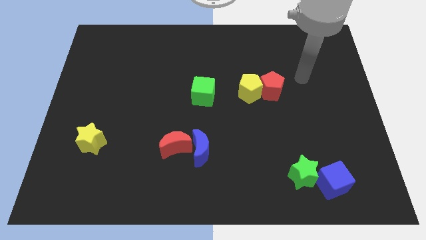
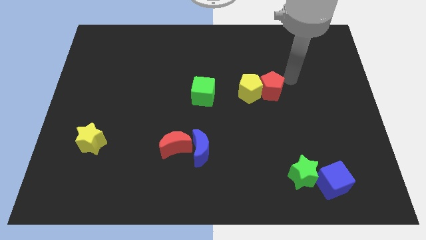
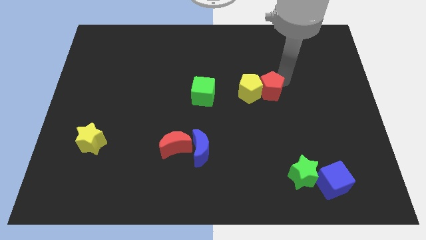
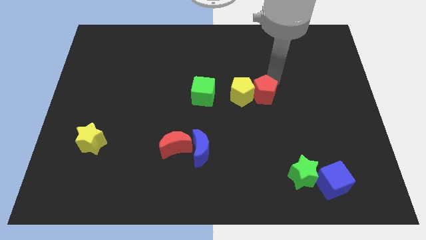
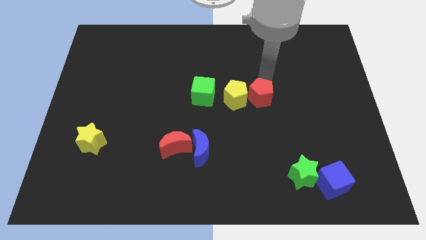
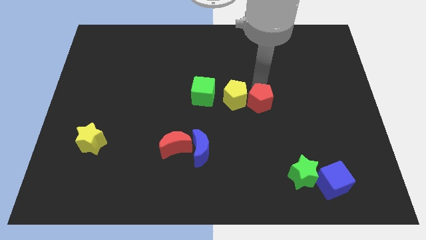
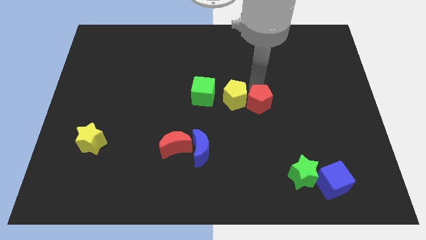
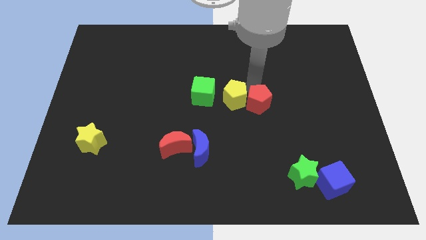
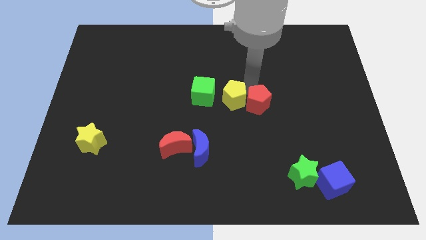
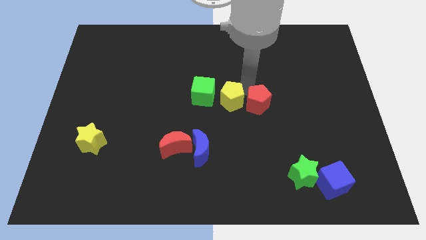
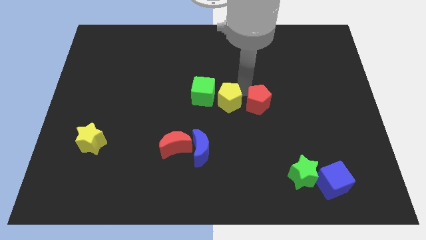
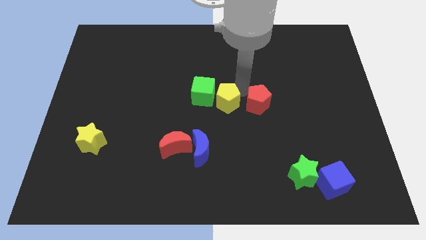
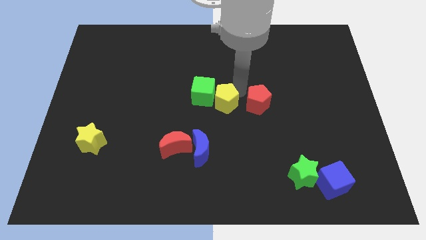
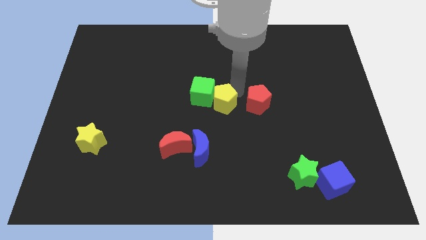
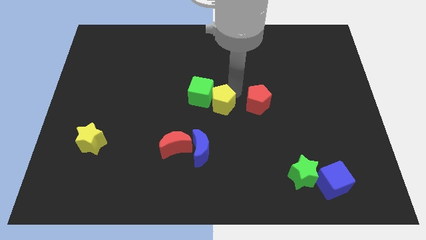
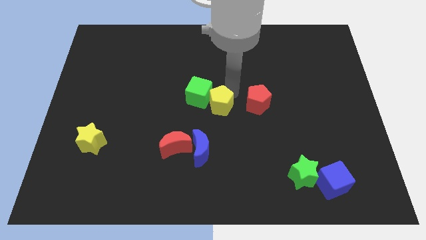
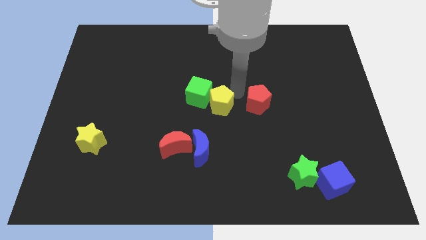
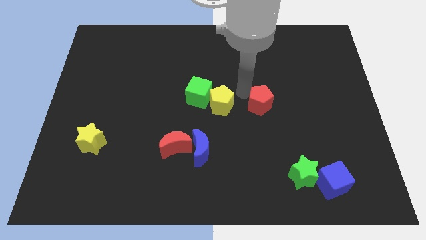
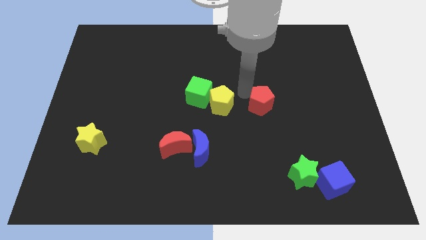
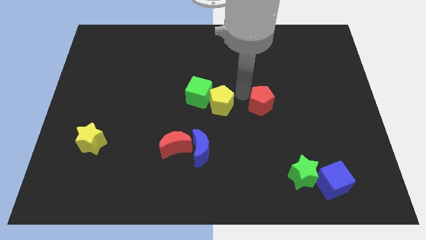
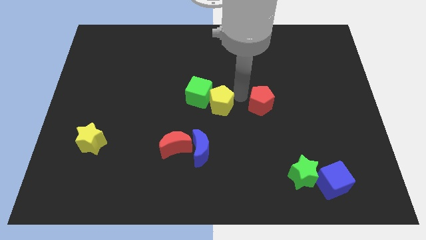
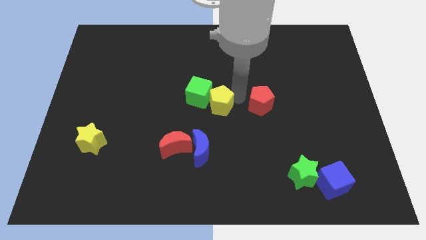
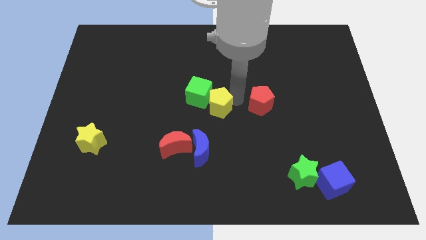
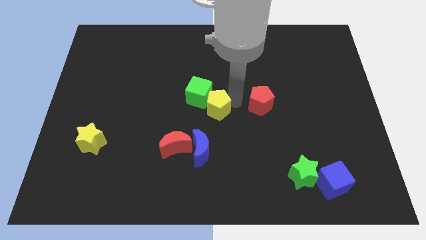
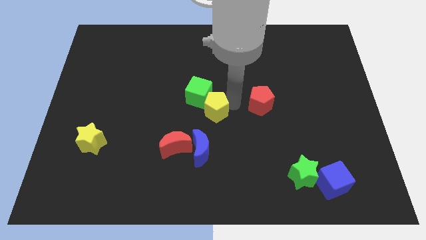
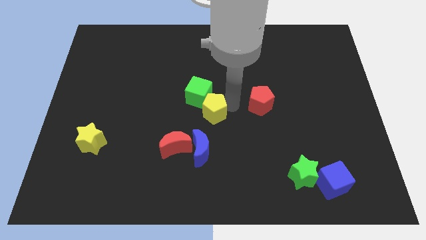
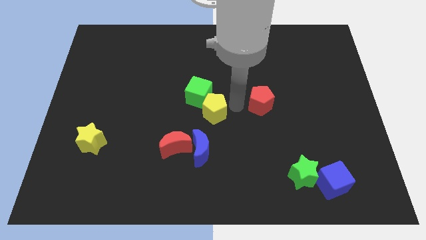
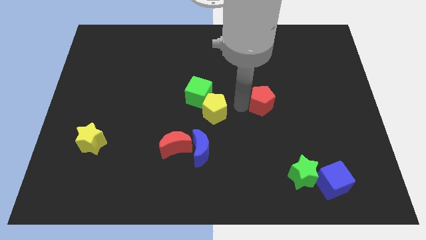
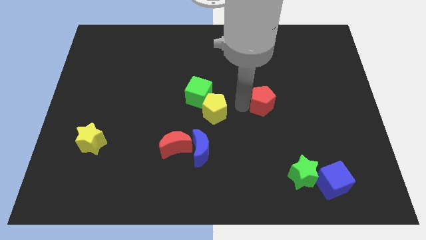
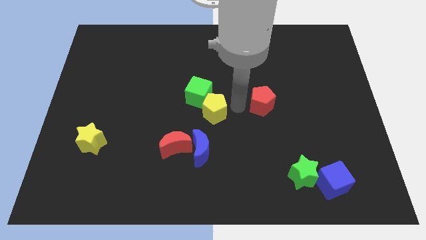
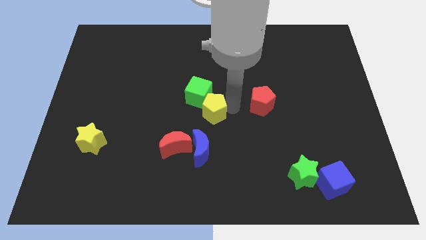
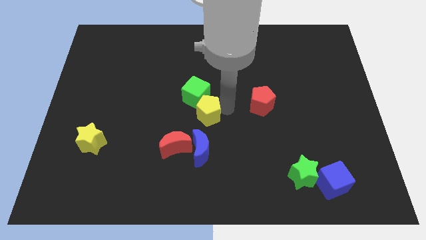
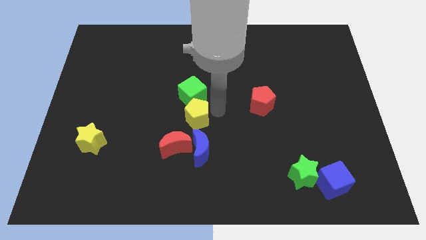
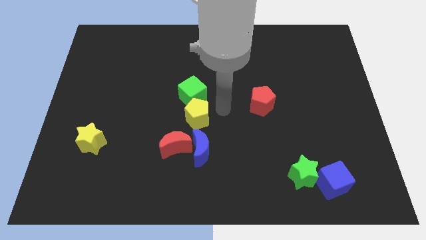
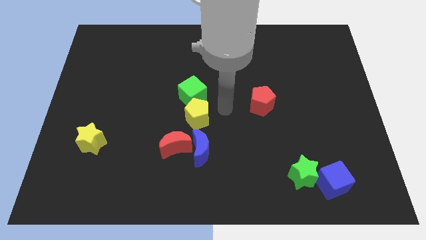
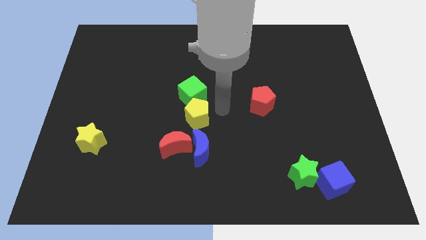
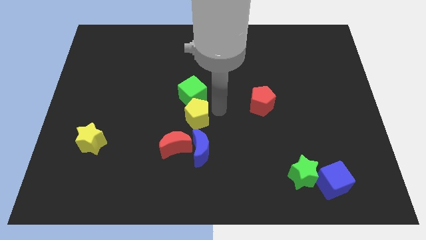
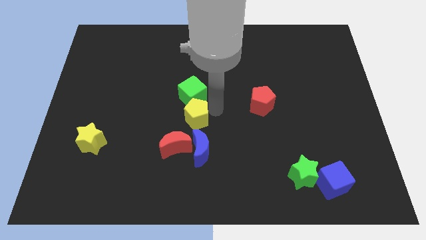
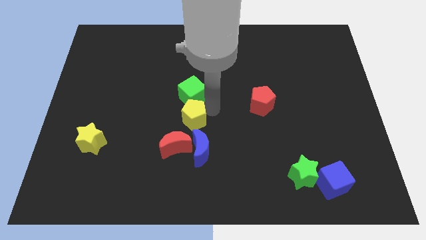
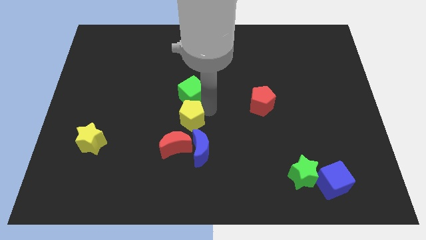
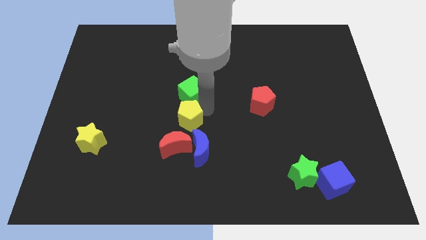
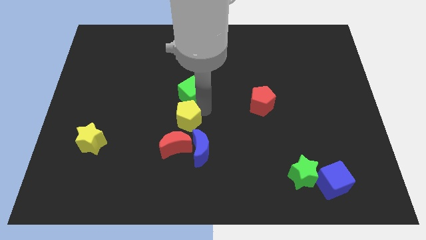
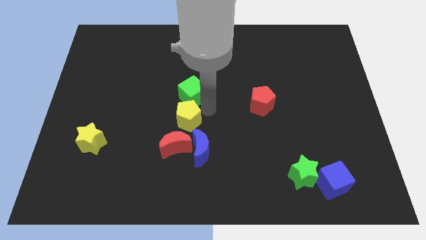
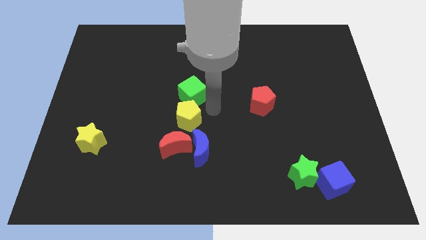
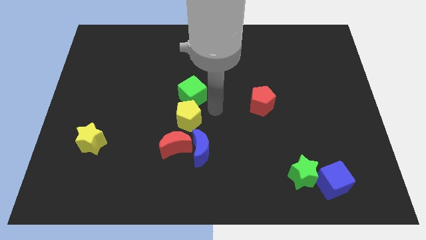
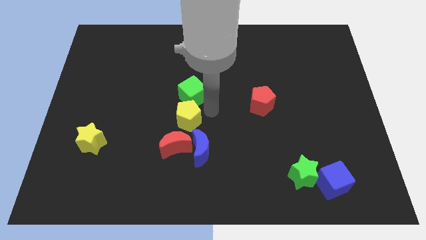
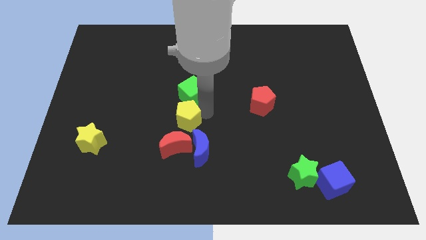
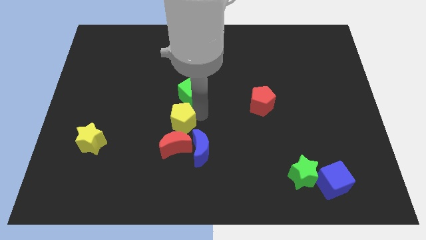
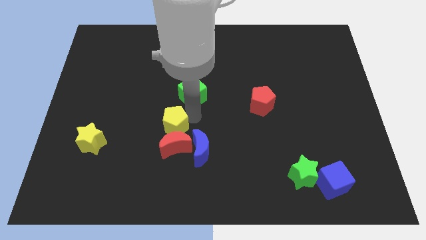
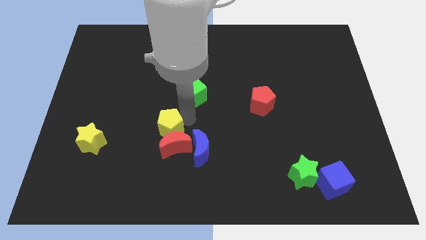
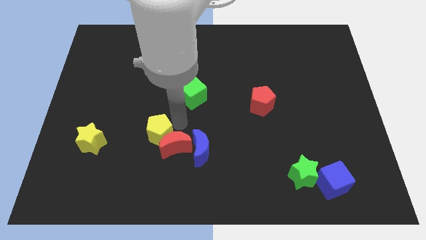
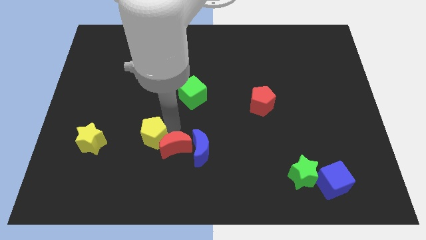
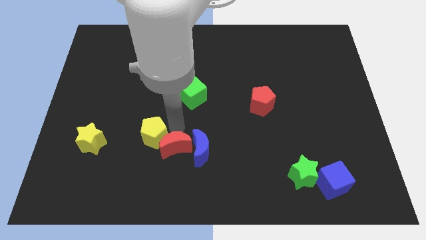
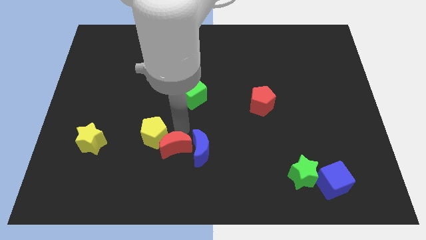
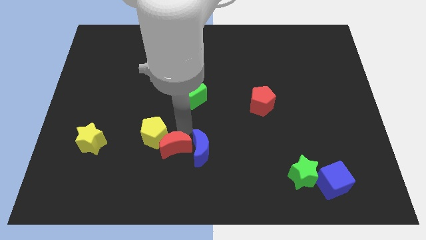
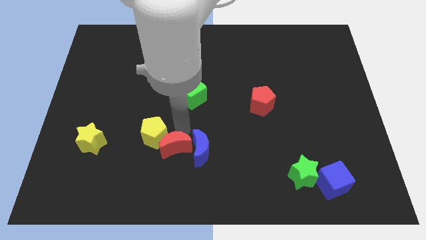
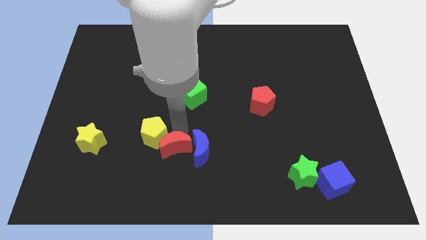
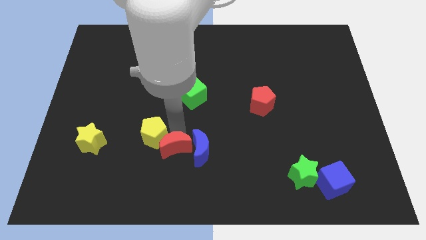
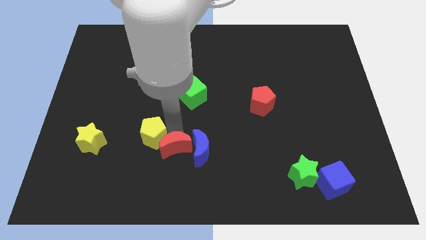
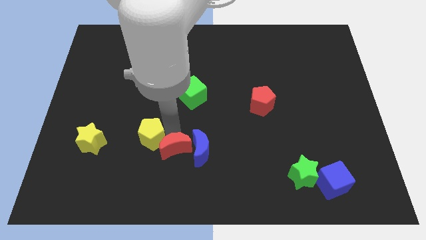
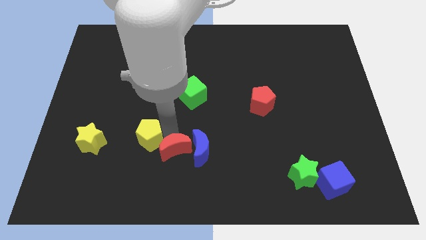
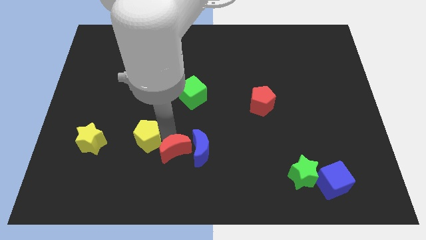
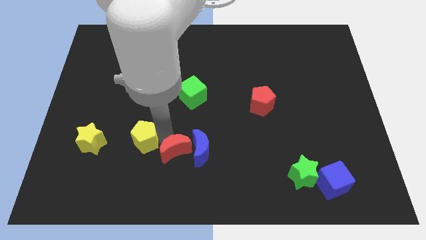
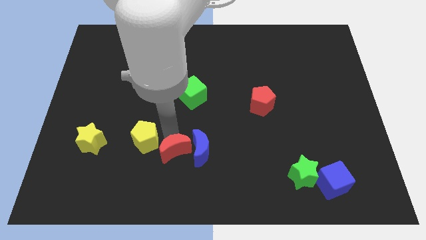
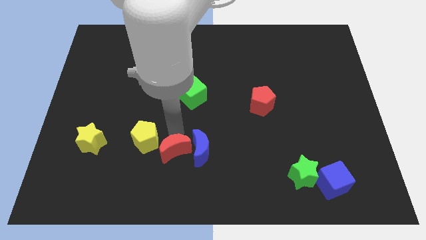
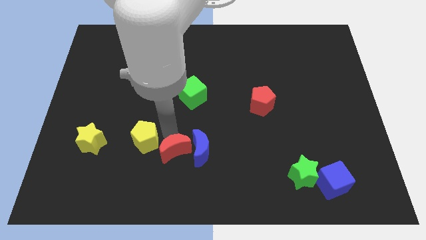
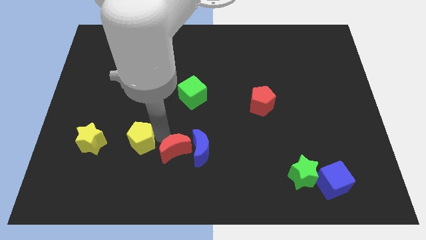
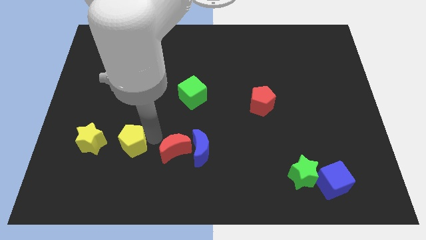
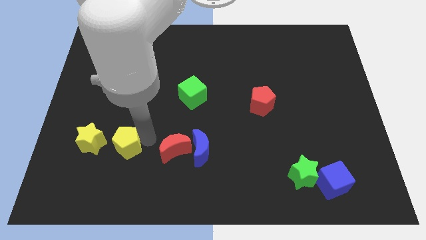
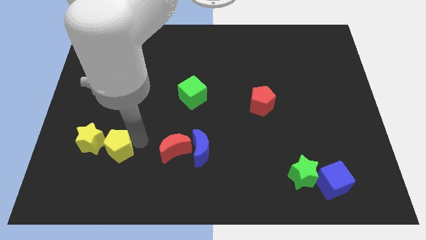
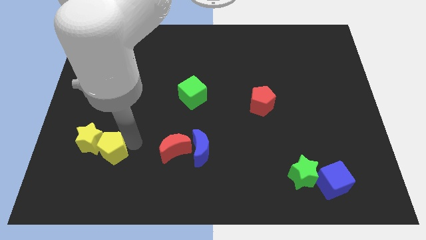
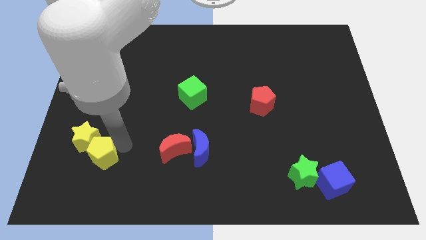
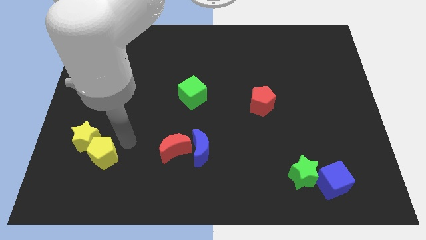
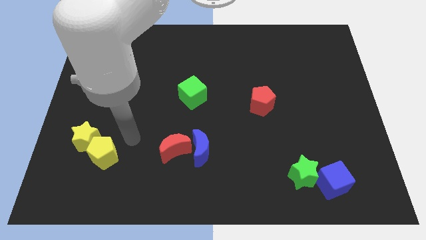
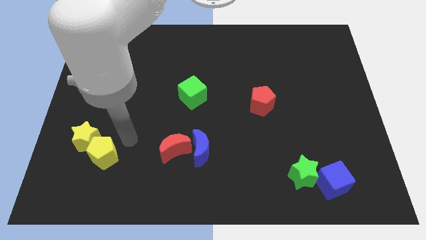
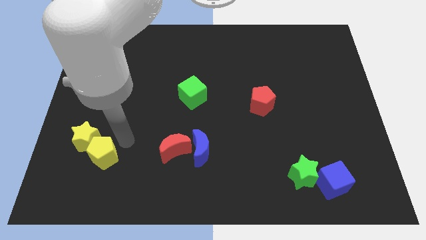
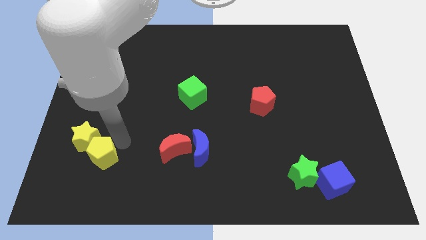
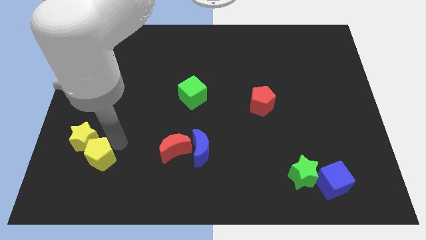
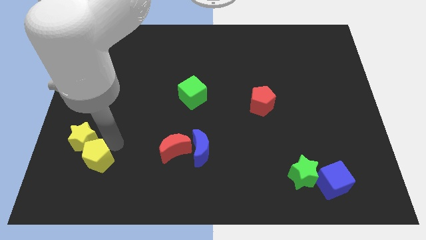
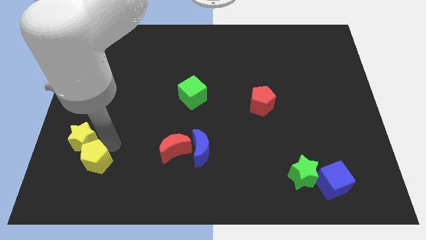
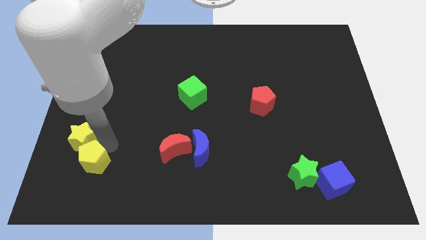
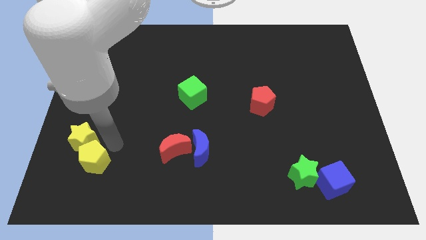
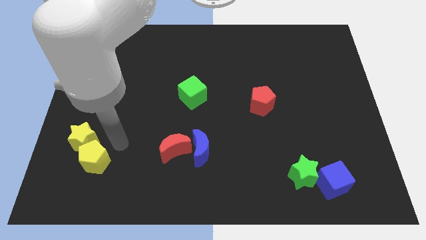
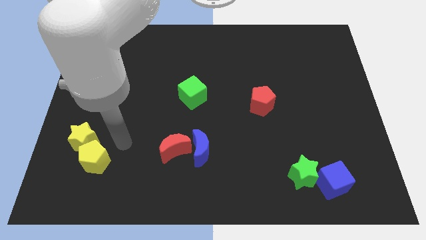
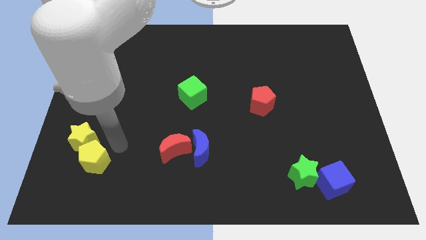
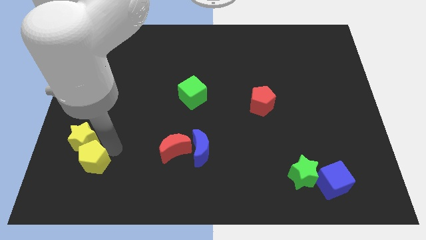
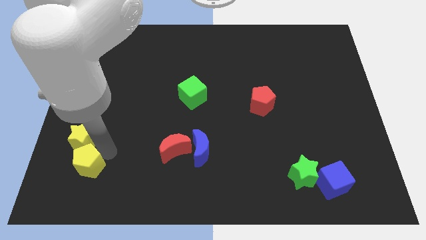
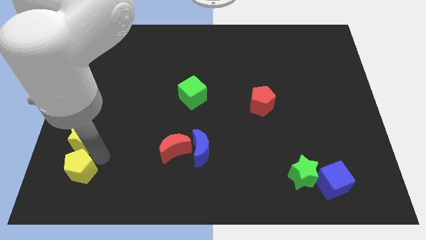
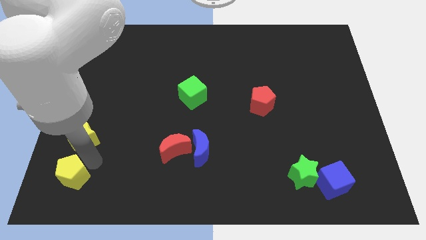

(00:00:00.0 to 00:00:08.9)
slide the yellow pentagon to the lower left corner

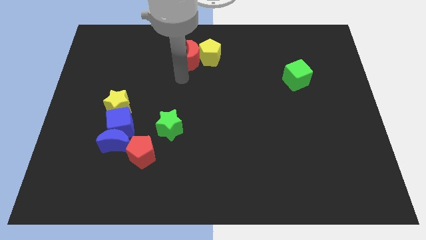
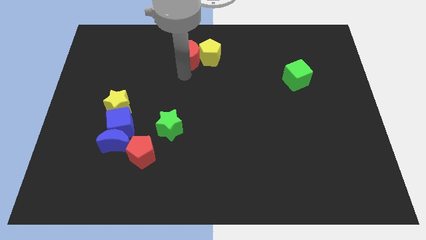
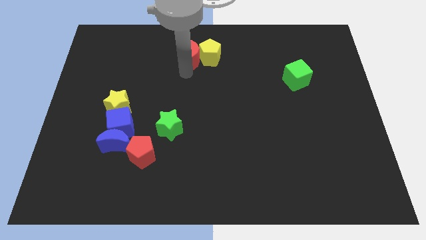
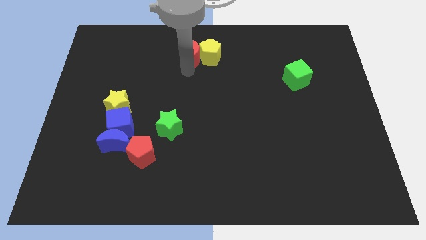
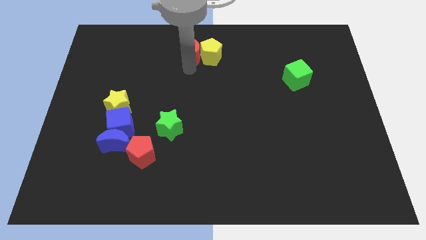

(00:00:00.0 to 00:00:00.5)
slide the red moon to the top side
